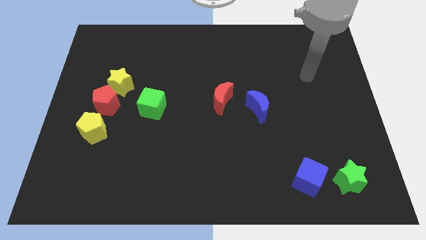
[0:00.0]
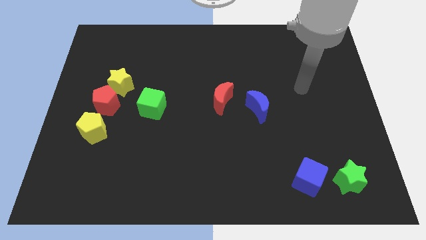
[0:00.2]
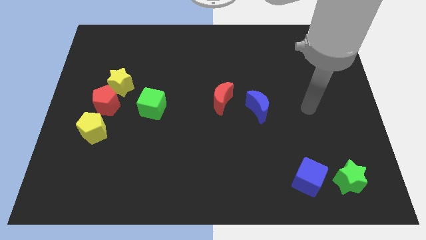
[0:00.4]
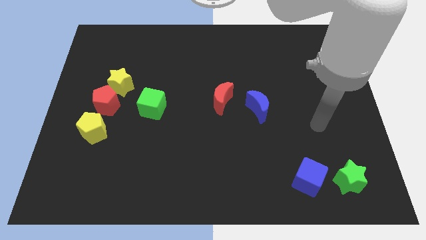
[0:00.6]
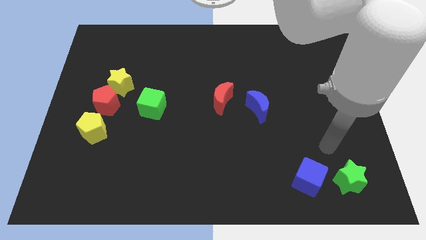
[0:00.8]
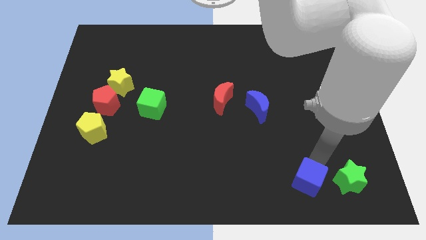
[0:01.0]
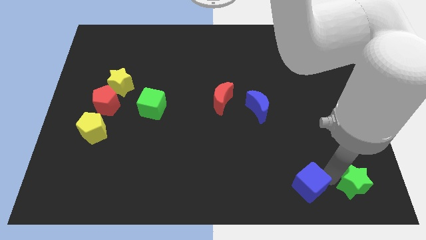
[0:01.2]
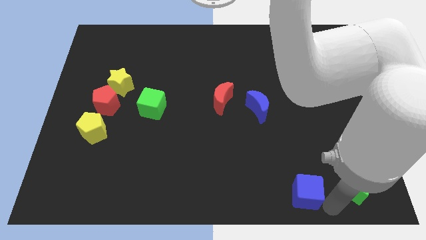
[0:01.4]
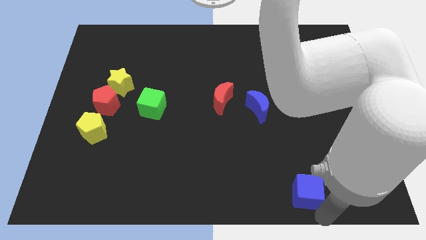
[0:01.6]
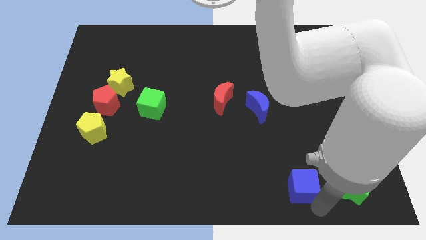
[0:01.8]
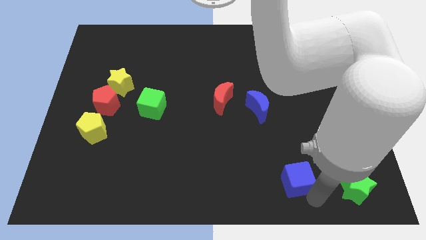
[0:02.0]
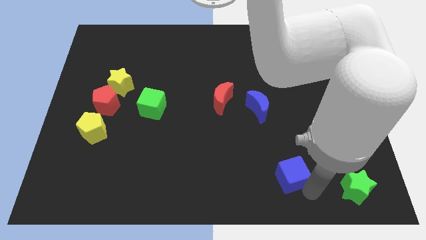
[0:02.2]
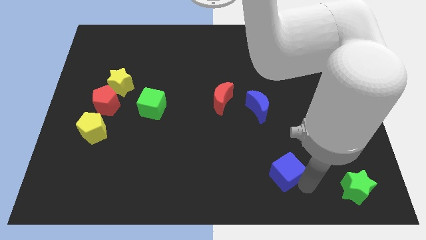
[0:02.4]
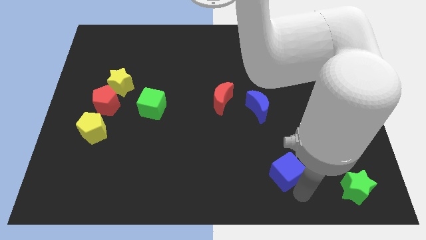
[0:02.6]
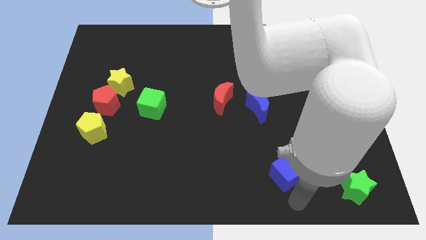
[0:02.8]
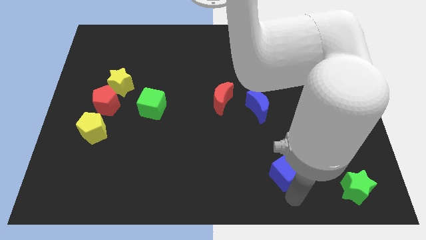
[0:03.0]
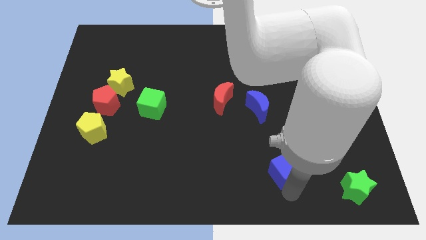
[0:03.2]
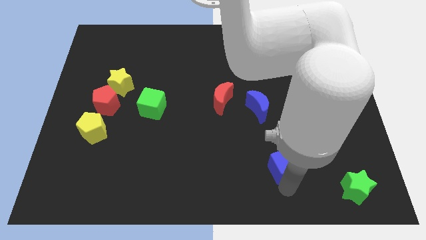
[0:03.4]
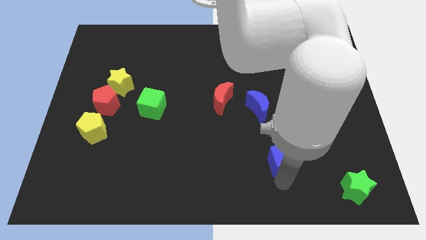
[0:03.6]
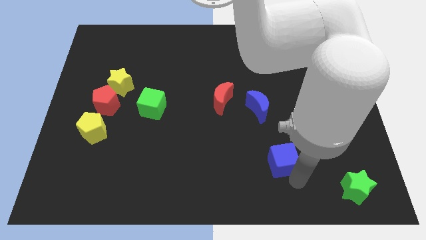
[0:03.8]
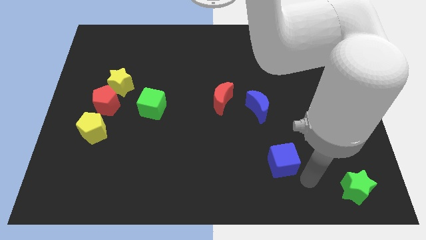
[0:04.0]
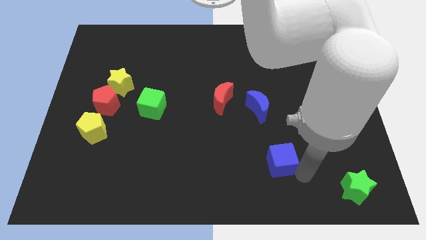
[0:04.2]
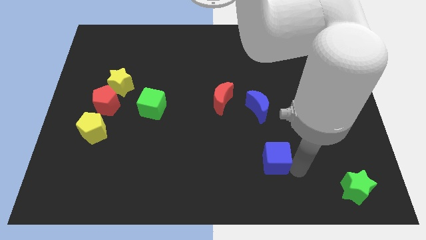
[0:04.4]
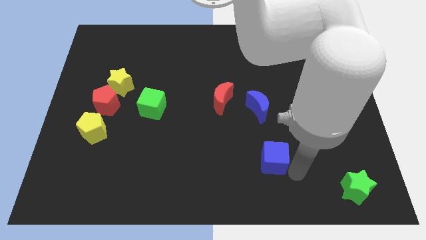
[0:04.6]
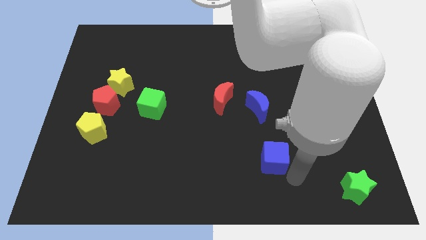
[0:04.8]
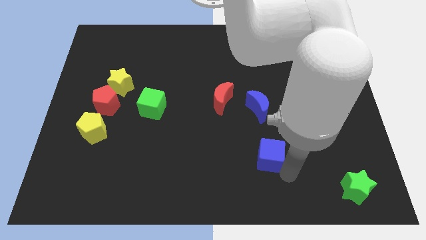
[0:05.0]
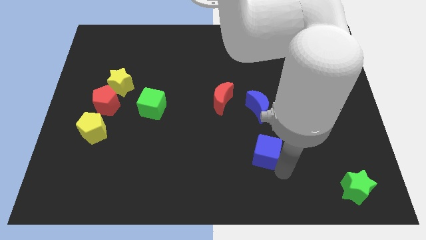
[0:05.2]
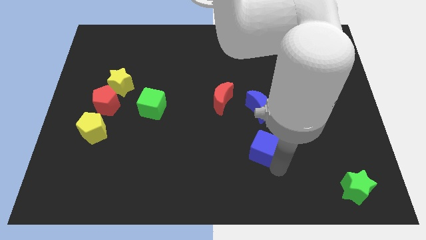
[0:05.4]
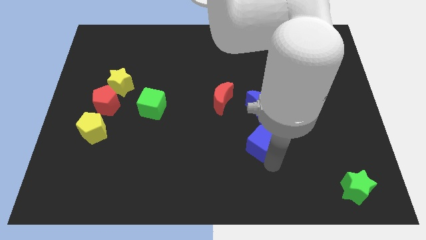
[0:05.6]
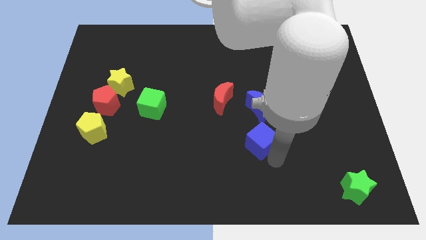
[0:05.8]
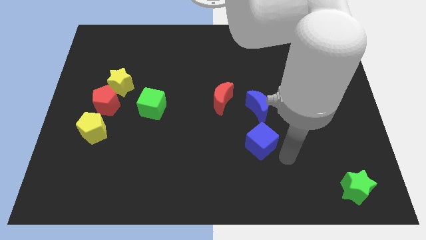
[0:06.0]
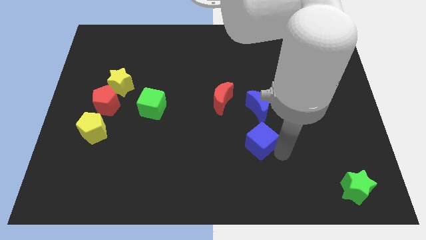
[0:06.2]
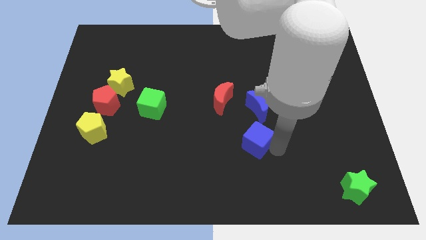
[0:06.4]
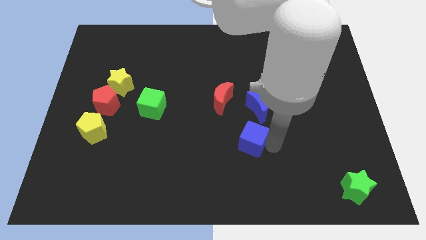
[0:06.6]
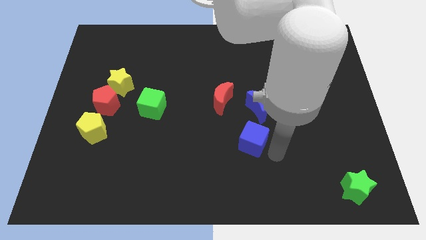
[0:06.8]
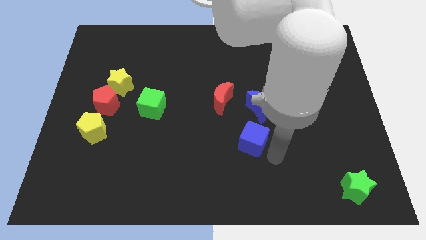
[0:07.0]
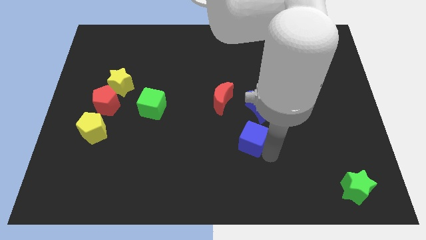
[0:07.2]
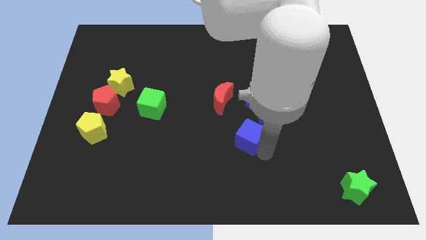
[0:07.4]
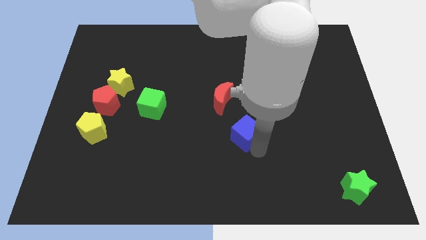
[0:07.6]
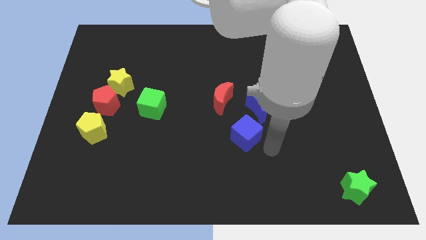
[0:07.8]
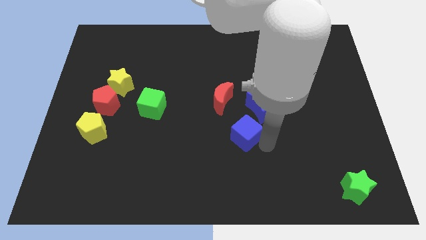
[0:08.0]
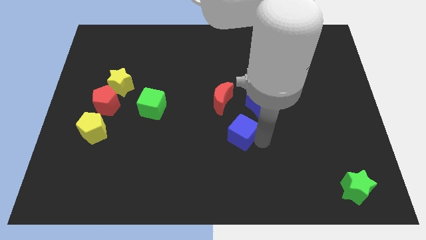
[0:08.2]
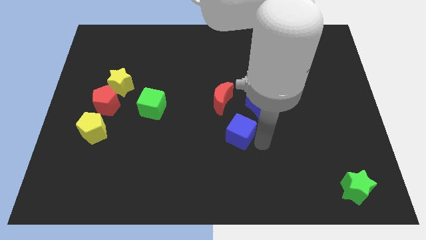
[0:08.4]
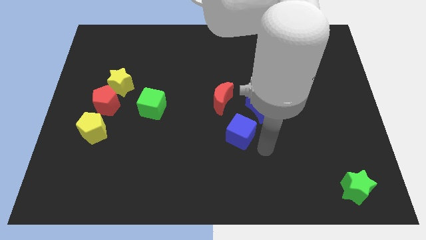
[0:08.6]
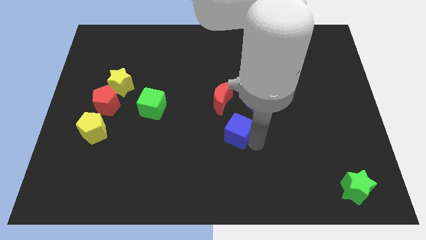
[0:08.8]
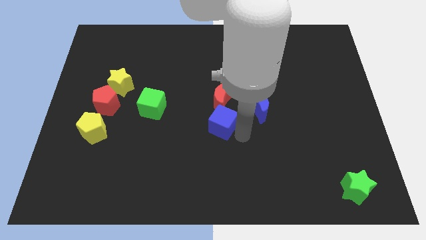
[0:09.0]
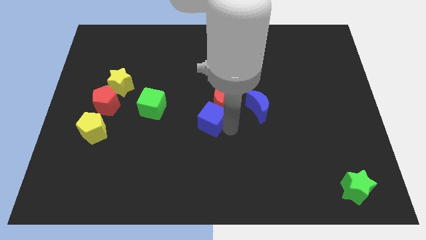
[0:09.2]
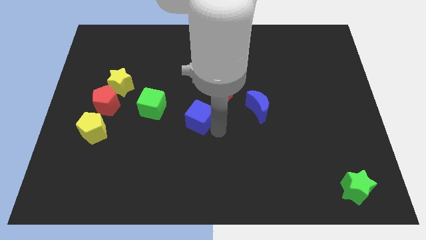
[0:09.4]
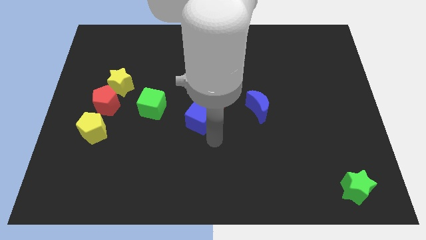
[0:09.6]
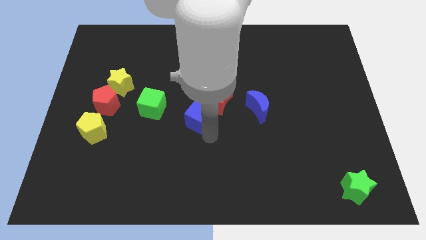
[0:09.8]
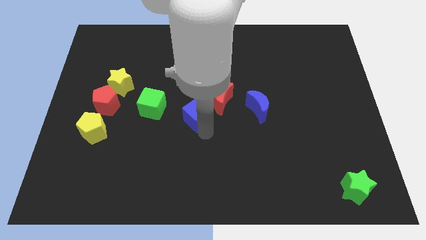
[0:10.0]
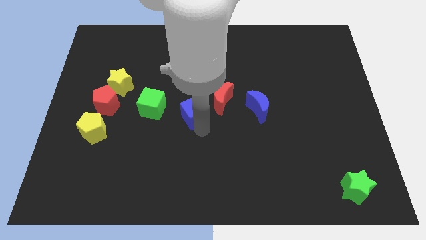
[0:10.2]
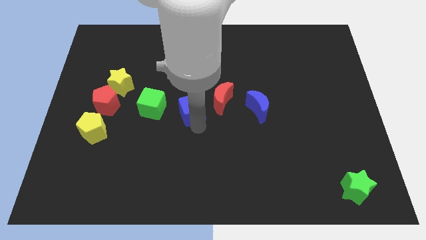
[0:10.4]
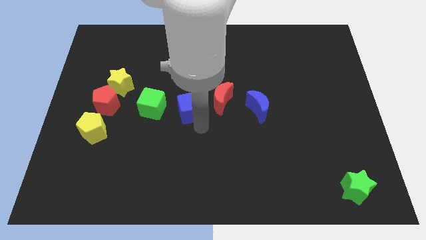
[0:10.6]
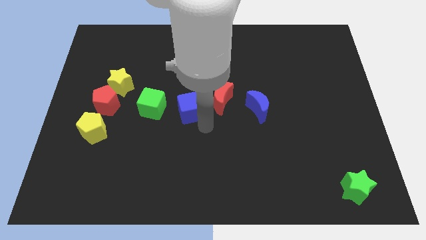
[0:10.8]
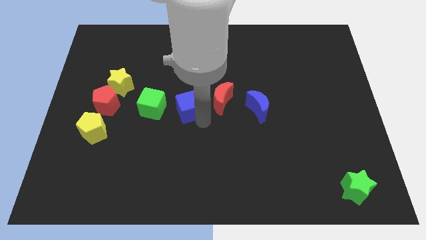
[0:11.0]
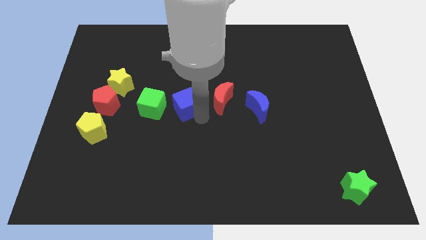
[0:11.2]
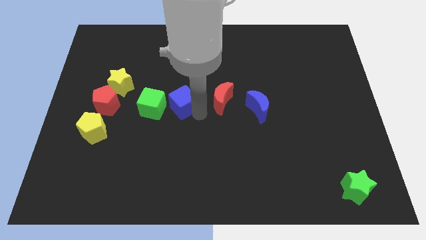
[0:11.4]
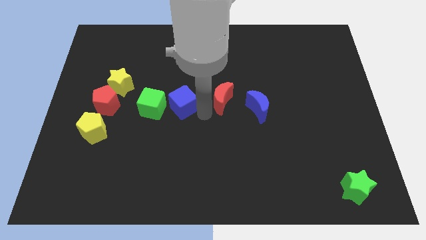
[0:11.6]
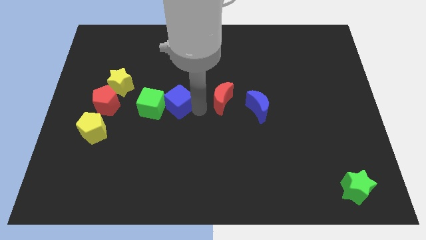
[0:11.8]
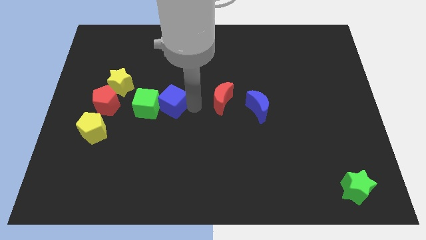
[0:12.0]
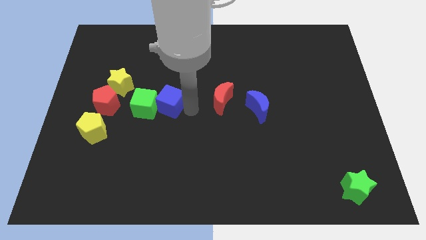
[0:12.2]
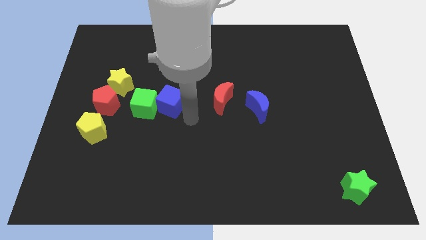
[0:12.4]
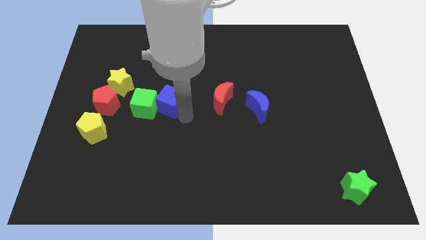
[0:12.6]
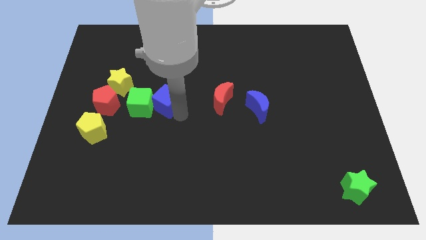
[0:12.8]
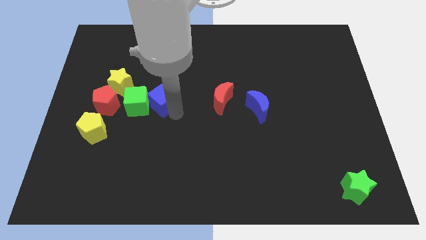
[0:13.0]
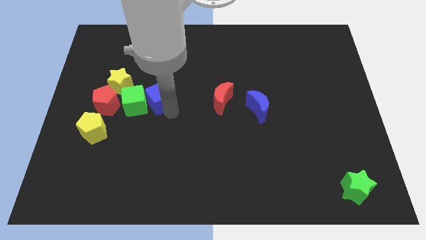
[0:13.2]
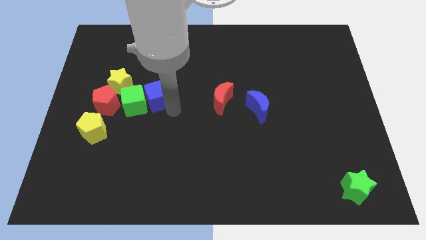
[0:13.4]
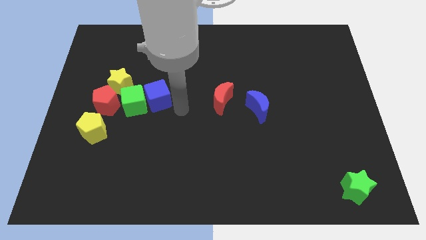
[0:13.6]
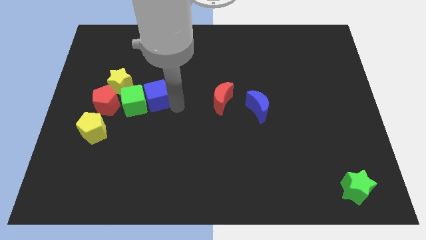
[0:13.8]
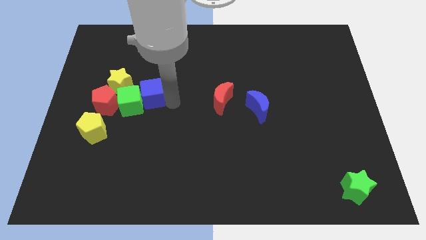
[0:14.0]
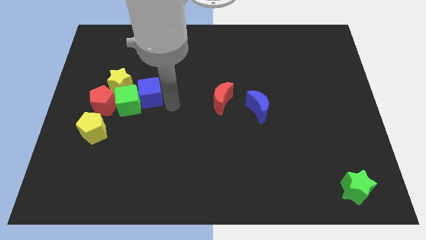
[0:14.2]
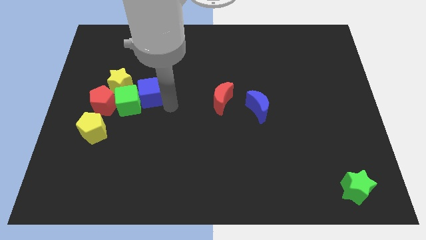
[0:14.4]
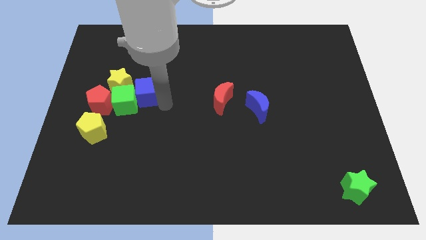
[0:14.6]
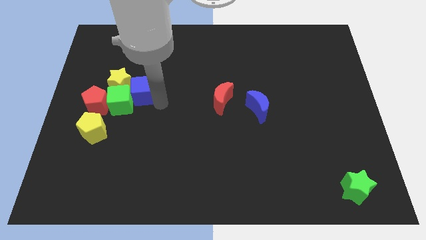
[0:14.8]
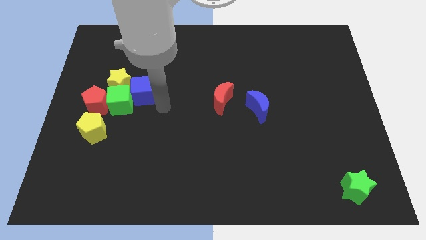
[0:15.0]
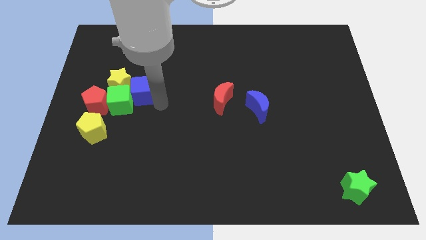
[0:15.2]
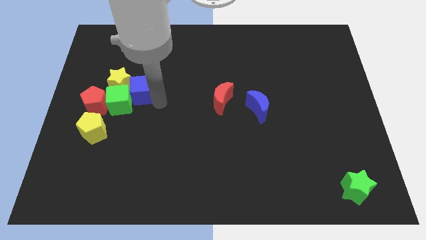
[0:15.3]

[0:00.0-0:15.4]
move the blue cube next to the yellow star
